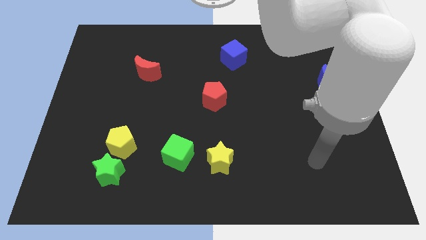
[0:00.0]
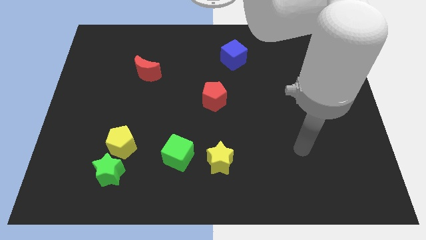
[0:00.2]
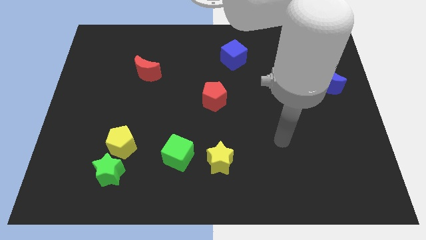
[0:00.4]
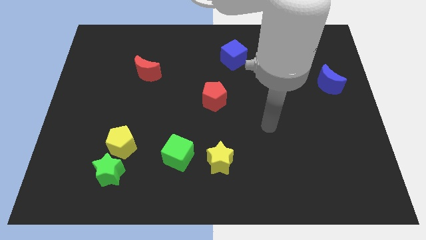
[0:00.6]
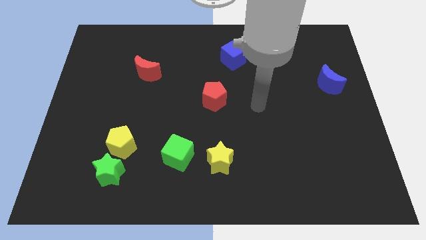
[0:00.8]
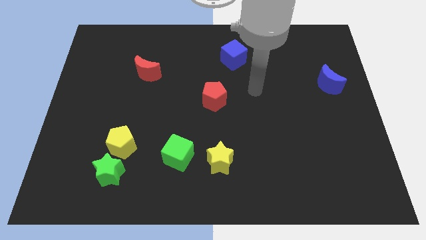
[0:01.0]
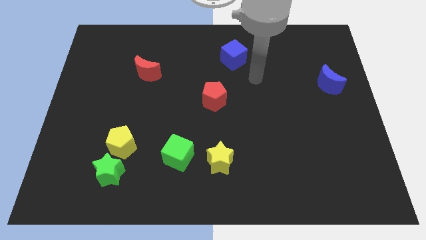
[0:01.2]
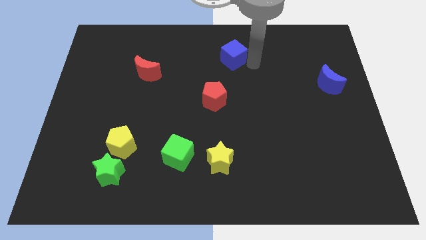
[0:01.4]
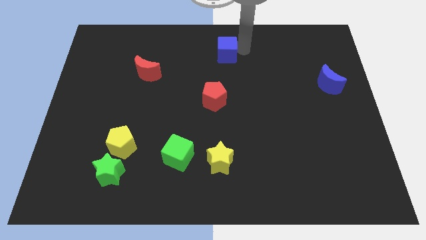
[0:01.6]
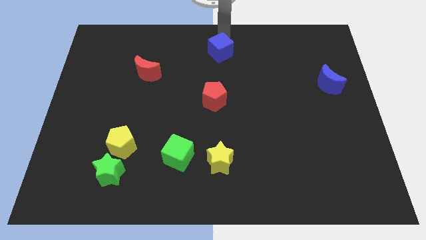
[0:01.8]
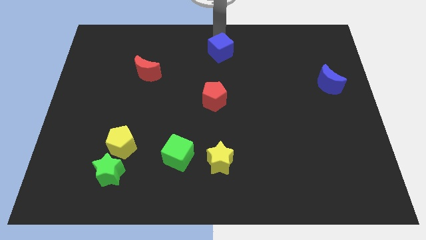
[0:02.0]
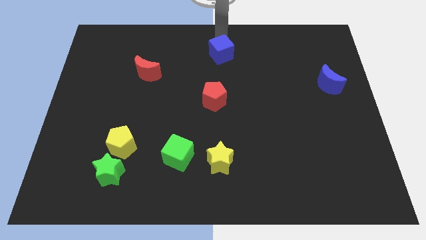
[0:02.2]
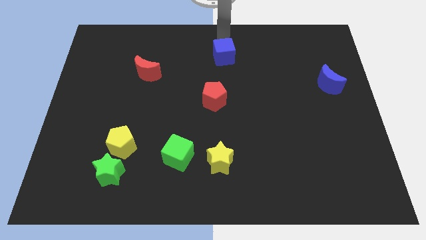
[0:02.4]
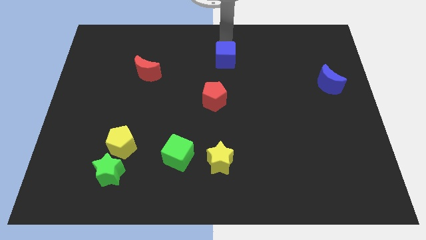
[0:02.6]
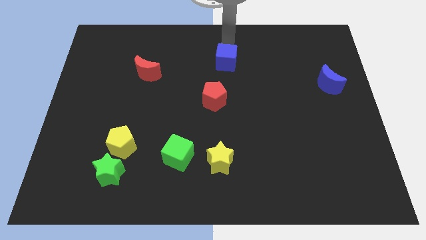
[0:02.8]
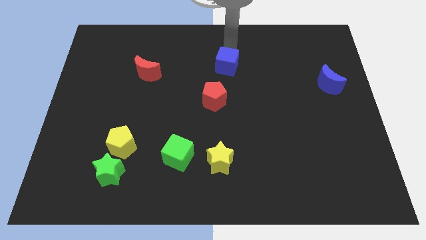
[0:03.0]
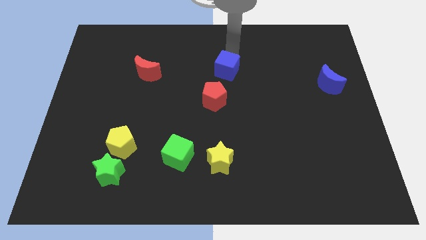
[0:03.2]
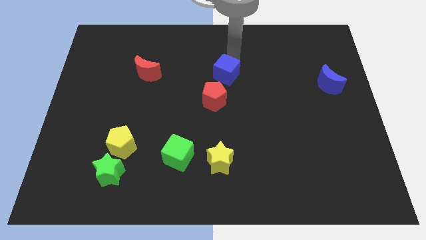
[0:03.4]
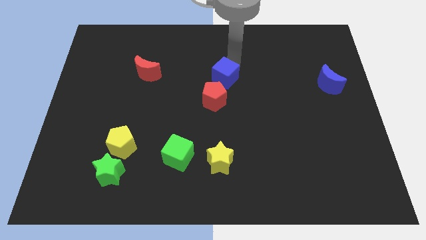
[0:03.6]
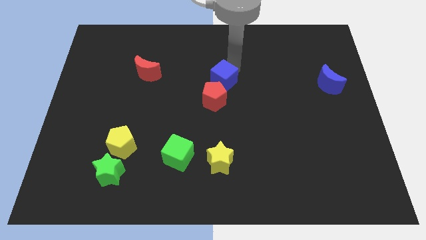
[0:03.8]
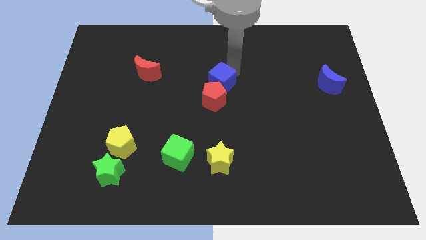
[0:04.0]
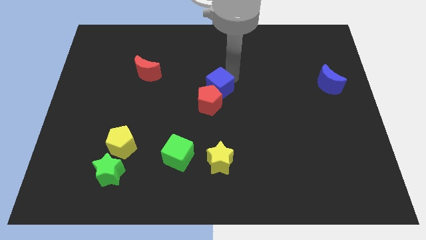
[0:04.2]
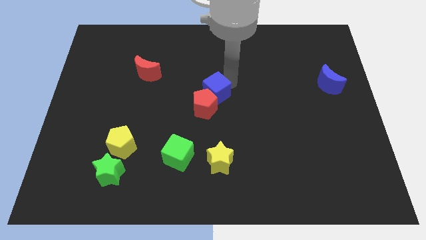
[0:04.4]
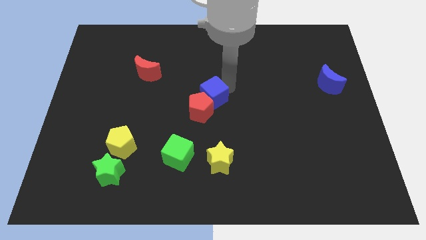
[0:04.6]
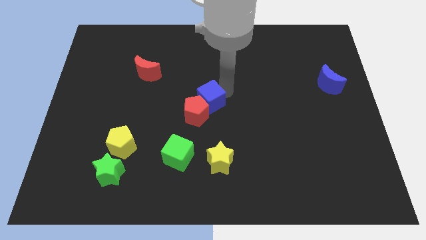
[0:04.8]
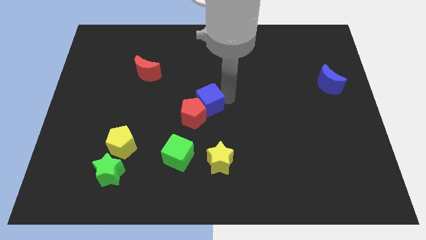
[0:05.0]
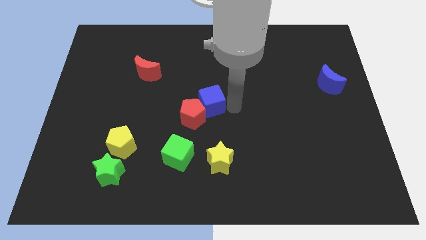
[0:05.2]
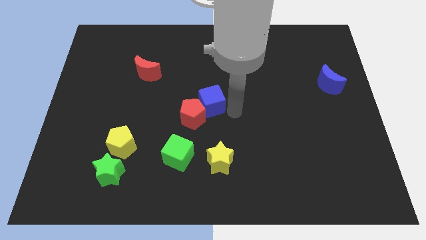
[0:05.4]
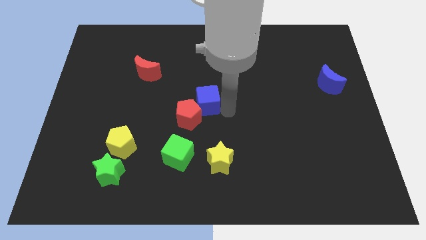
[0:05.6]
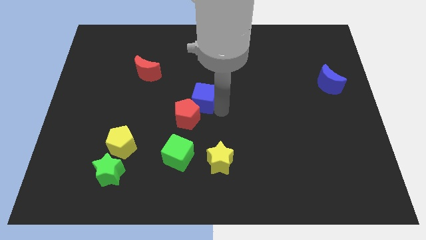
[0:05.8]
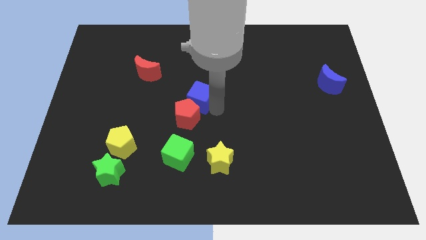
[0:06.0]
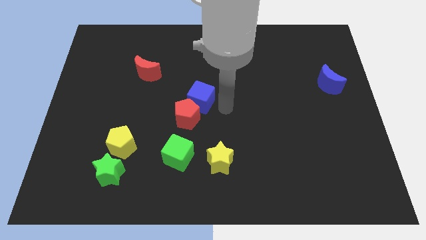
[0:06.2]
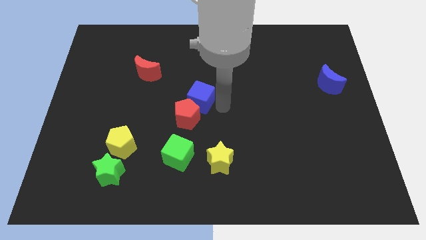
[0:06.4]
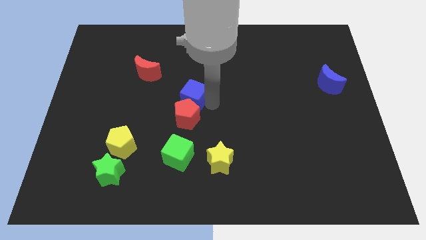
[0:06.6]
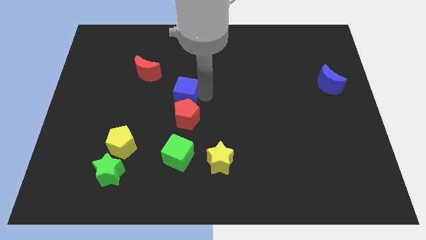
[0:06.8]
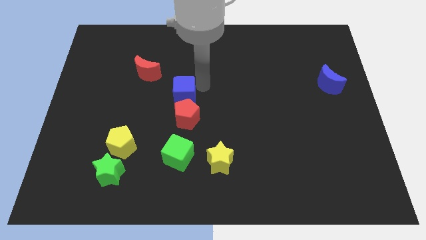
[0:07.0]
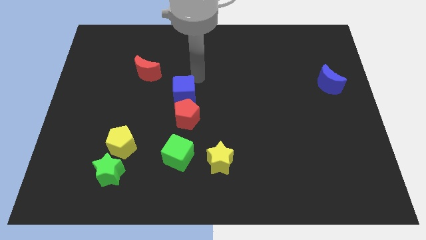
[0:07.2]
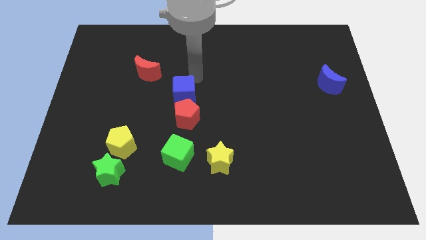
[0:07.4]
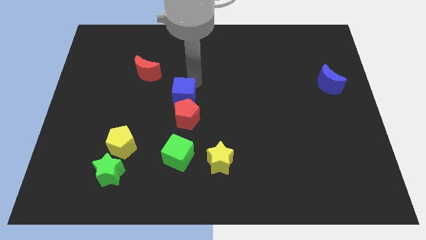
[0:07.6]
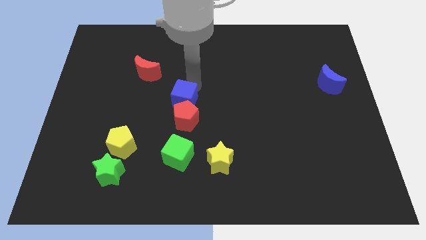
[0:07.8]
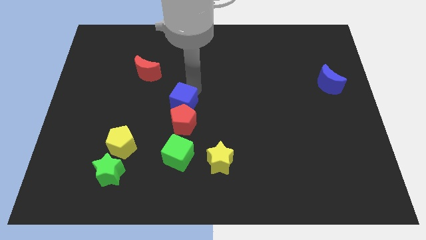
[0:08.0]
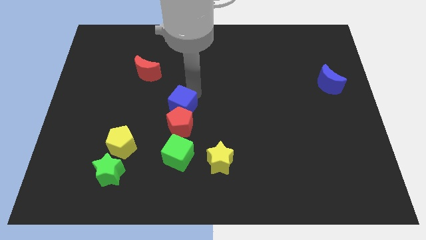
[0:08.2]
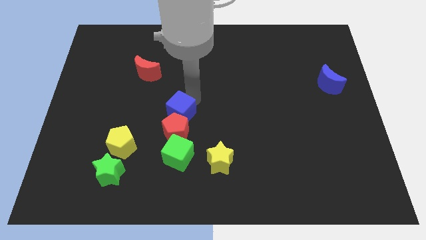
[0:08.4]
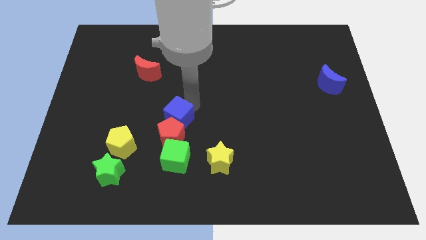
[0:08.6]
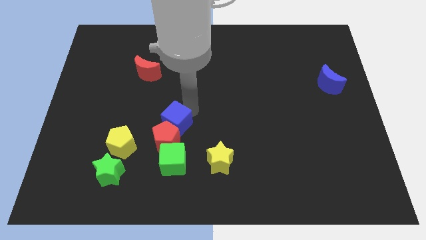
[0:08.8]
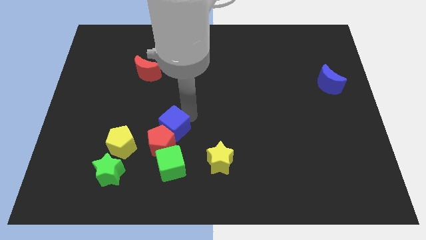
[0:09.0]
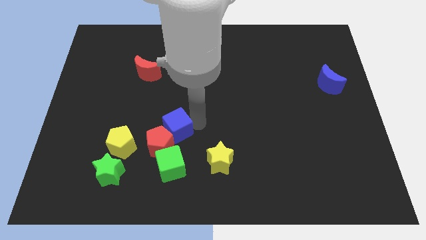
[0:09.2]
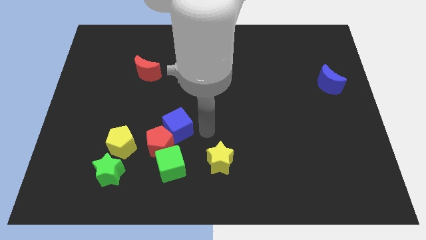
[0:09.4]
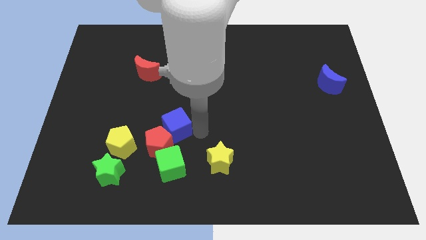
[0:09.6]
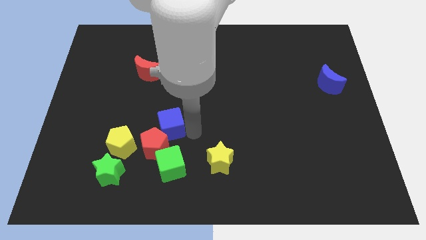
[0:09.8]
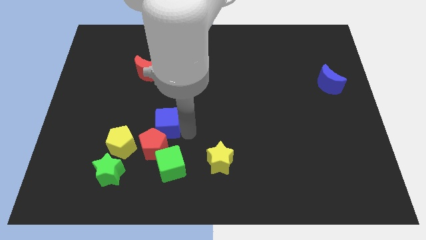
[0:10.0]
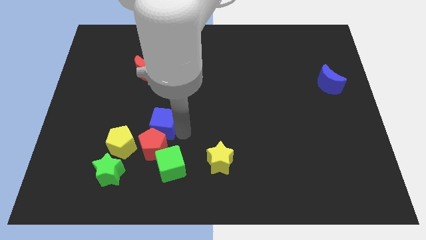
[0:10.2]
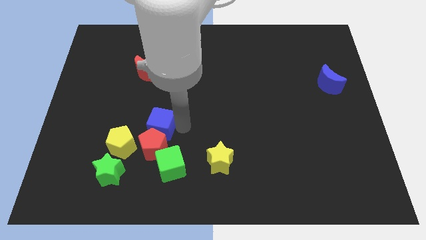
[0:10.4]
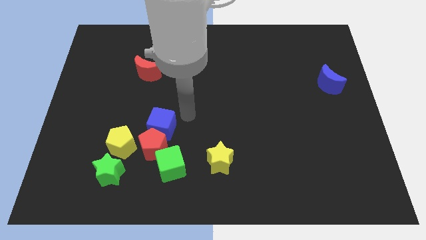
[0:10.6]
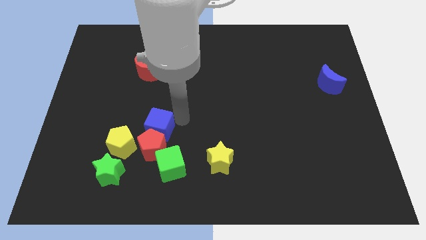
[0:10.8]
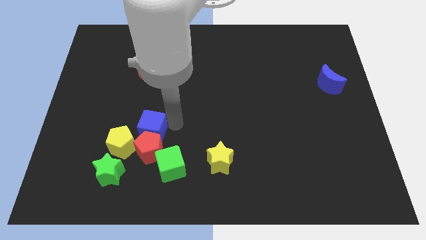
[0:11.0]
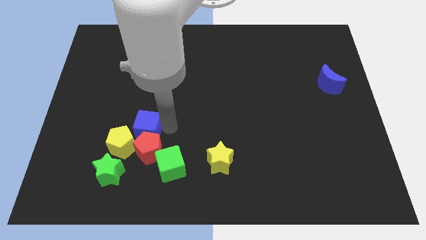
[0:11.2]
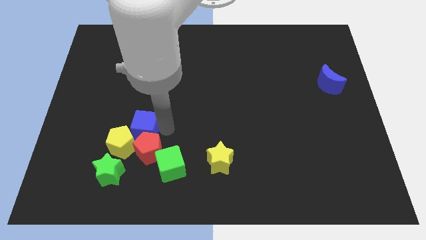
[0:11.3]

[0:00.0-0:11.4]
slide the blue cube to the yellow pentagon

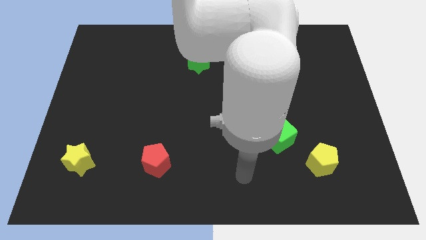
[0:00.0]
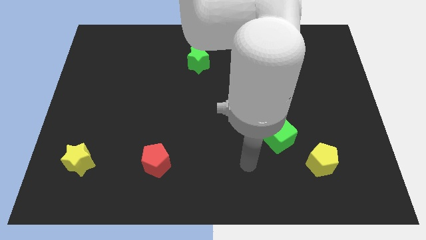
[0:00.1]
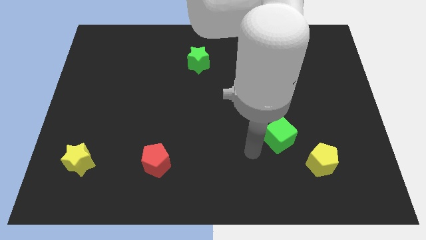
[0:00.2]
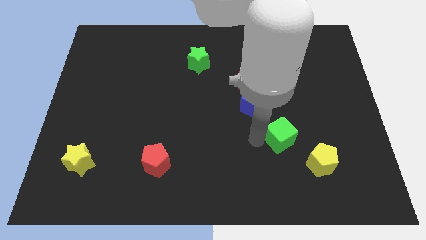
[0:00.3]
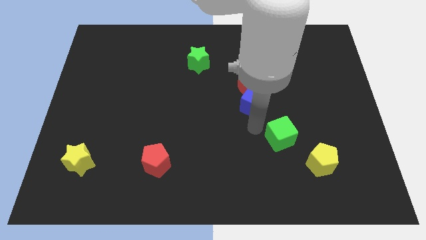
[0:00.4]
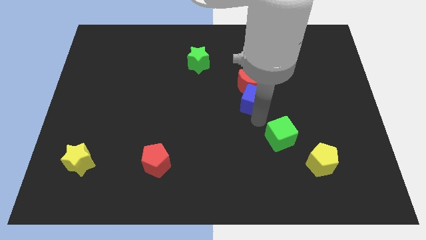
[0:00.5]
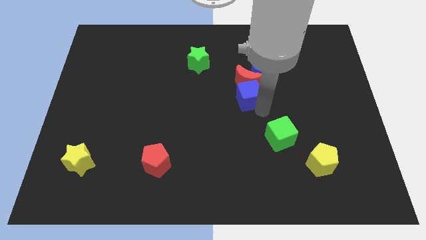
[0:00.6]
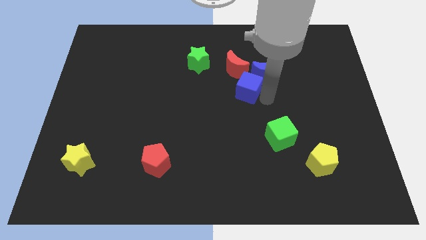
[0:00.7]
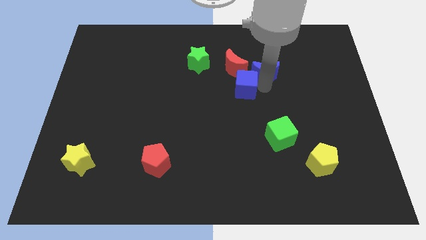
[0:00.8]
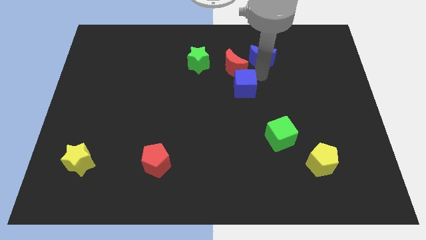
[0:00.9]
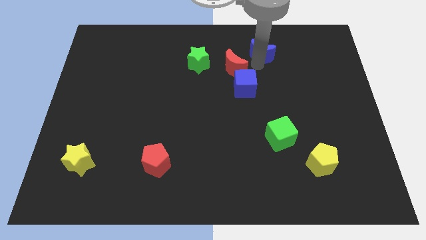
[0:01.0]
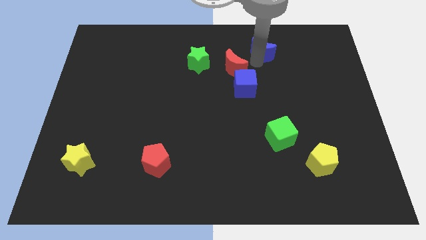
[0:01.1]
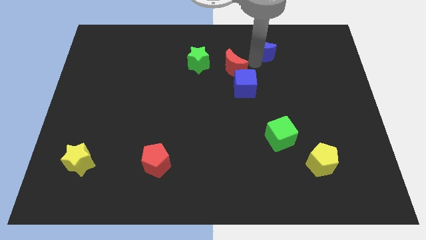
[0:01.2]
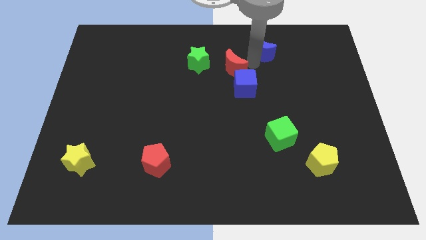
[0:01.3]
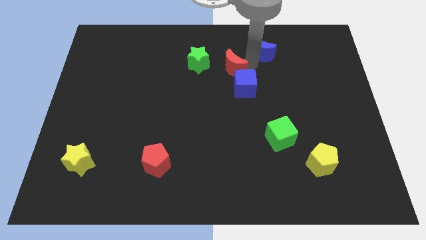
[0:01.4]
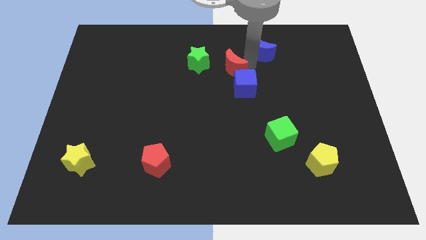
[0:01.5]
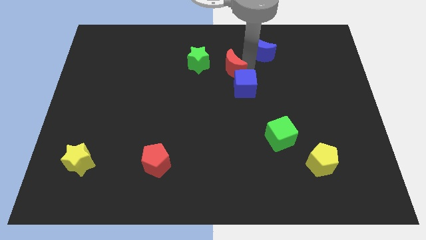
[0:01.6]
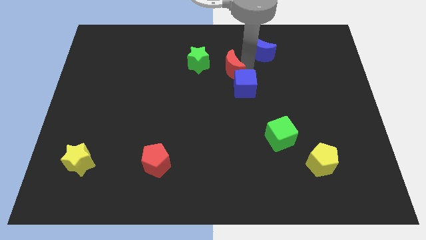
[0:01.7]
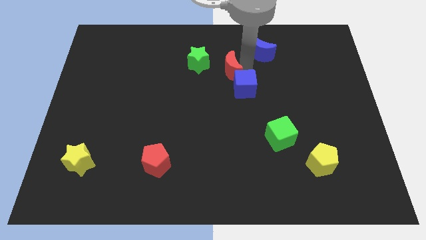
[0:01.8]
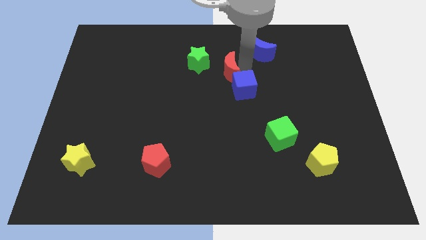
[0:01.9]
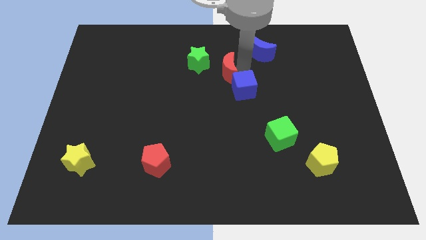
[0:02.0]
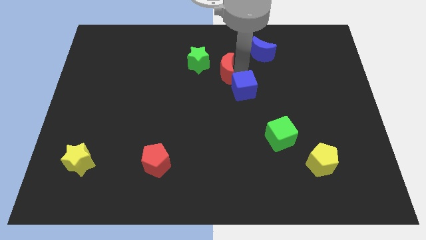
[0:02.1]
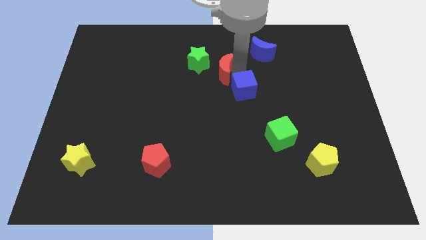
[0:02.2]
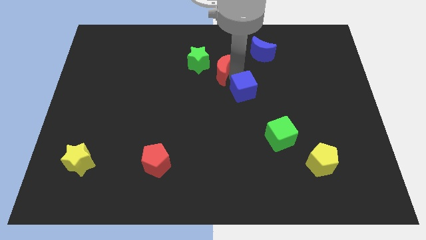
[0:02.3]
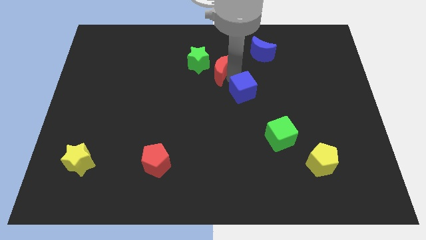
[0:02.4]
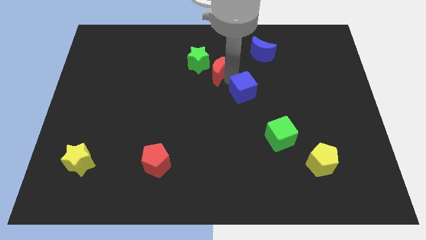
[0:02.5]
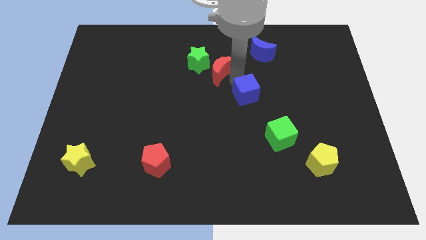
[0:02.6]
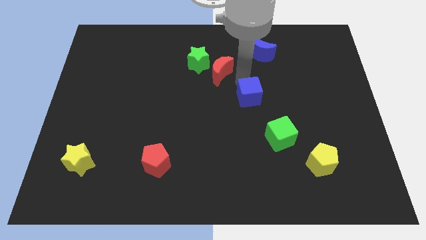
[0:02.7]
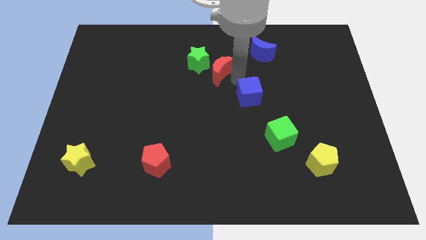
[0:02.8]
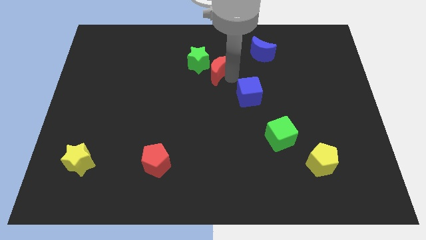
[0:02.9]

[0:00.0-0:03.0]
put the red moon towards the green star
